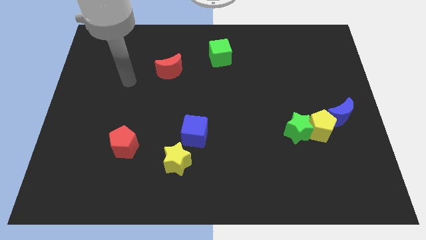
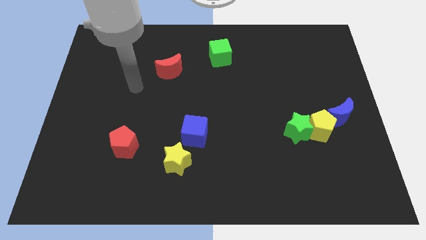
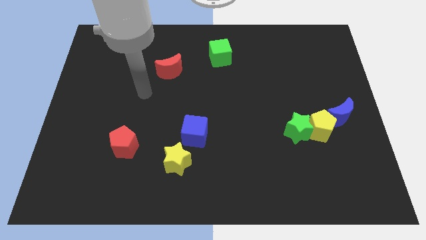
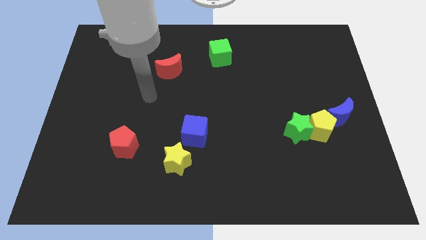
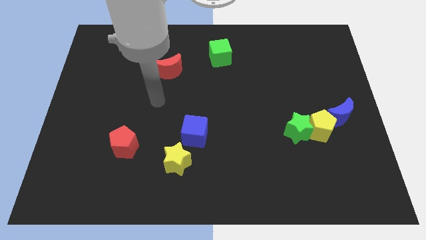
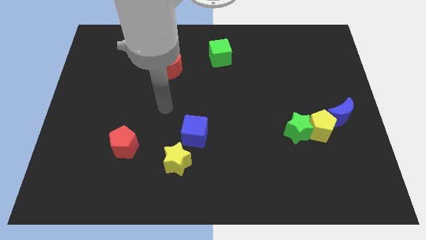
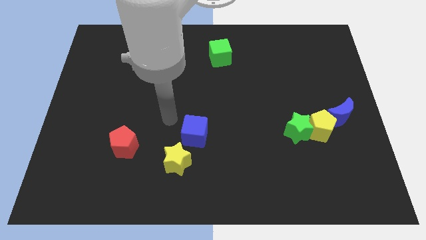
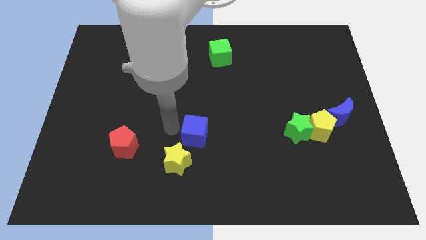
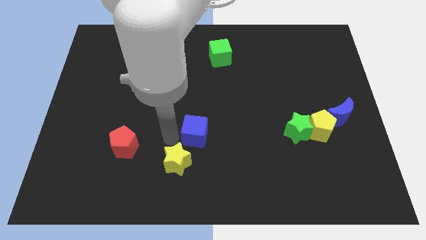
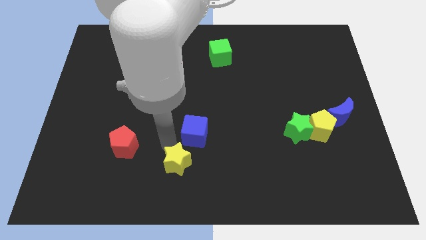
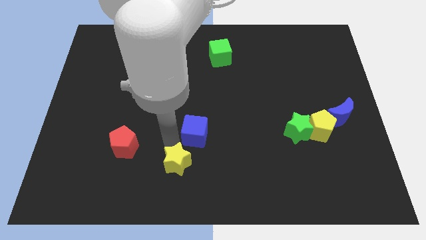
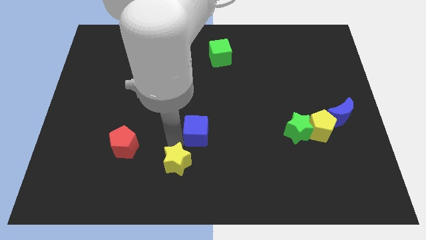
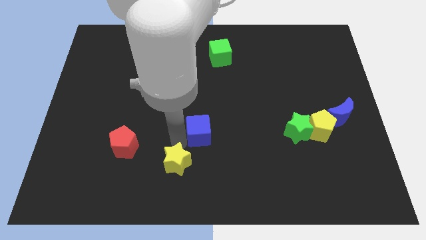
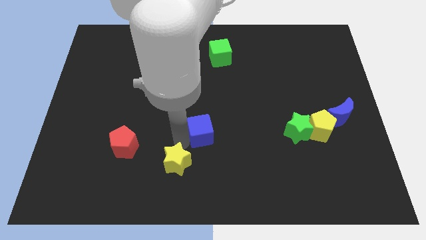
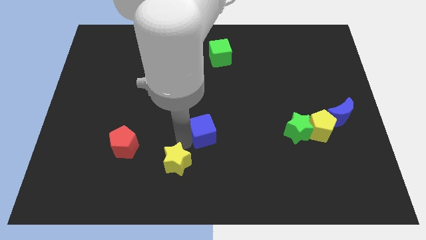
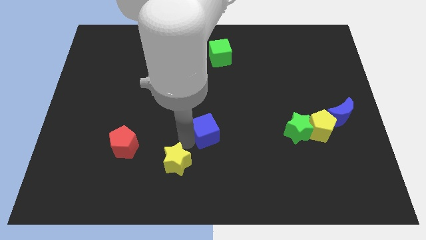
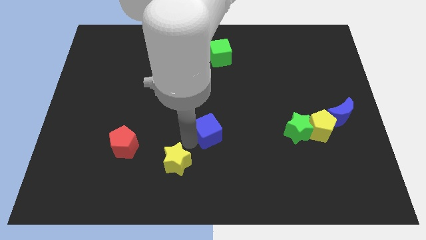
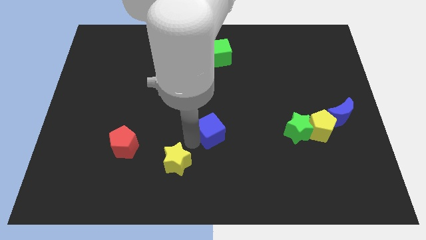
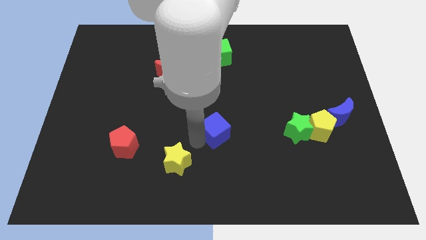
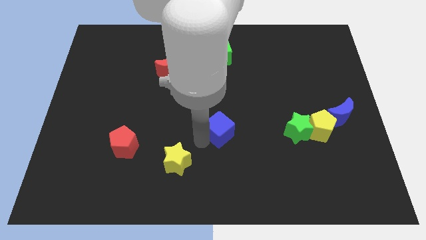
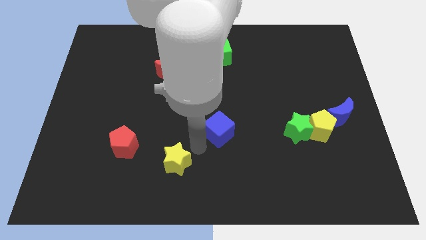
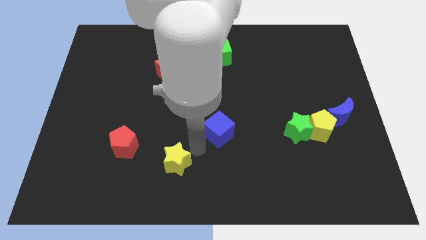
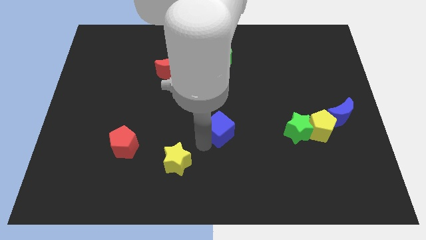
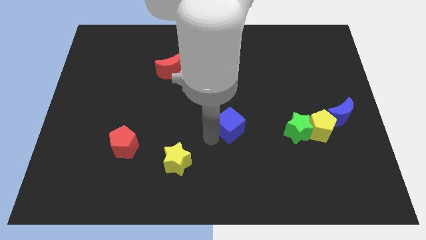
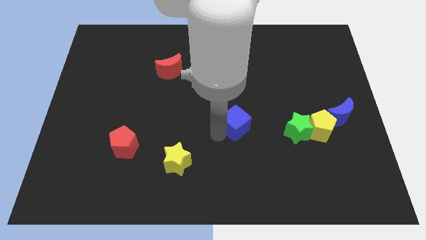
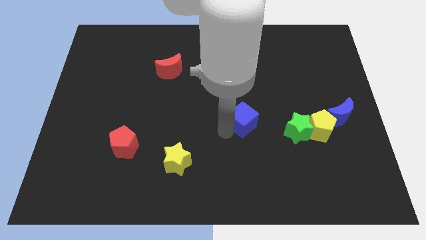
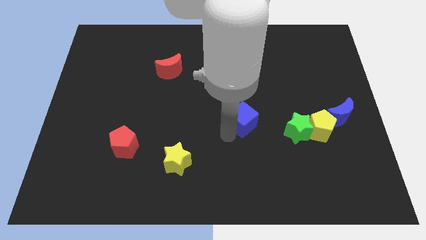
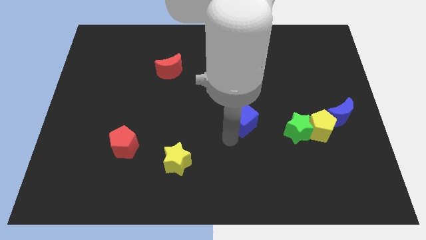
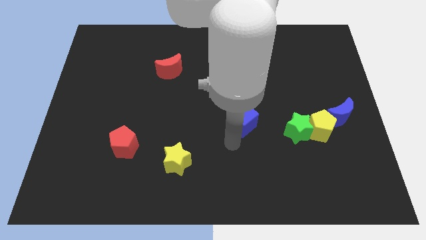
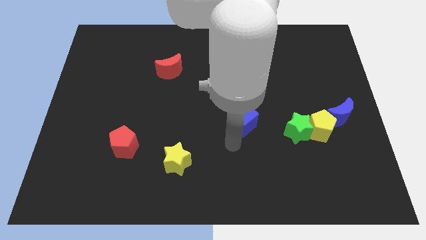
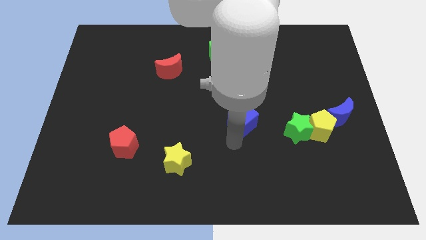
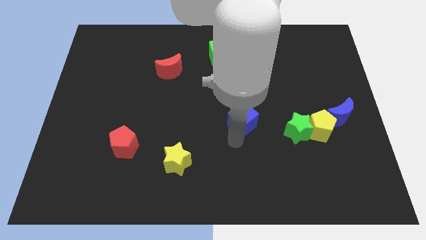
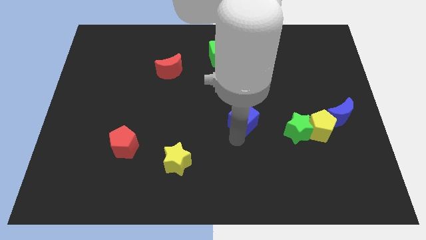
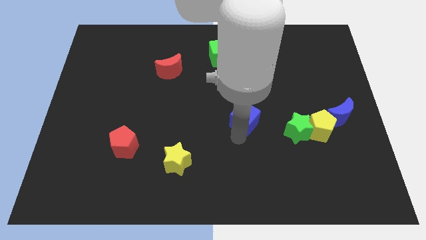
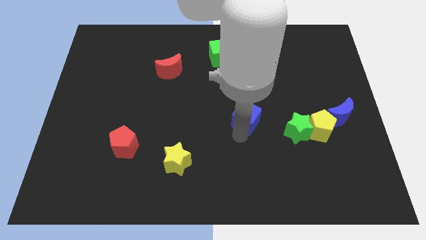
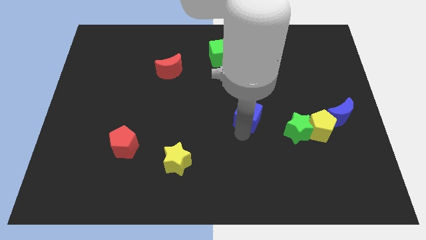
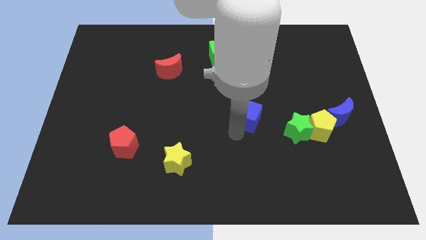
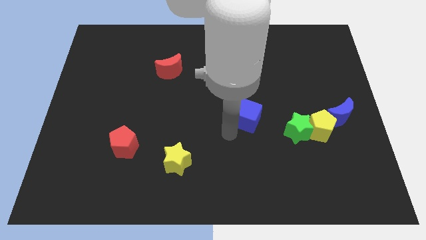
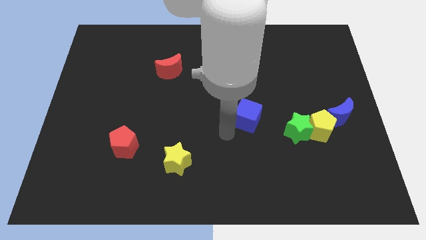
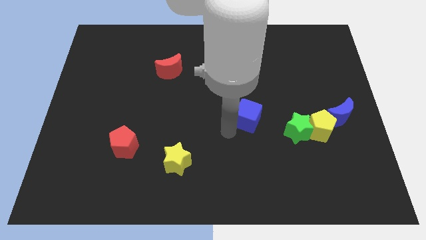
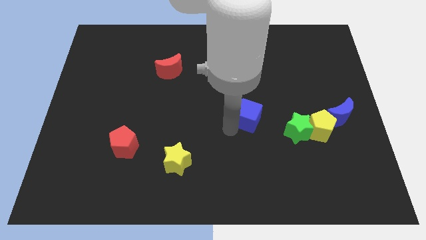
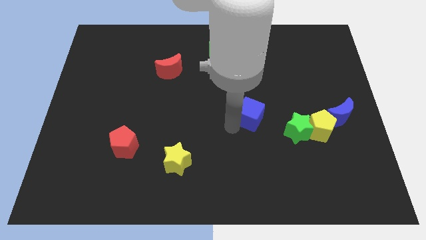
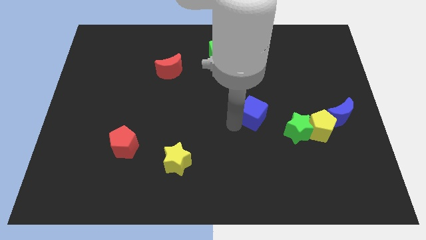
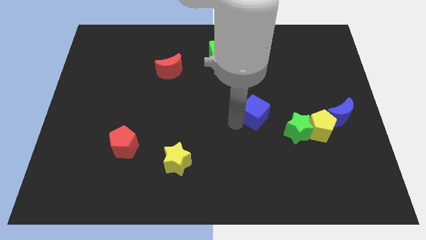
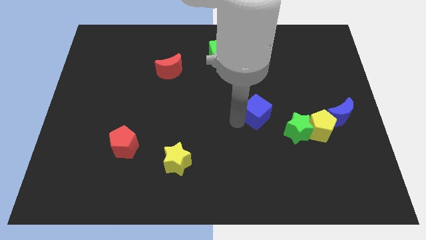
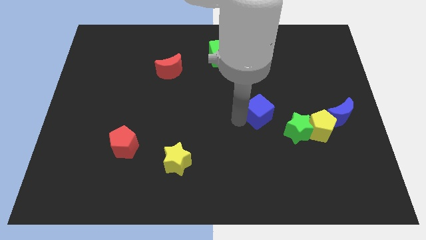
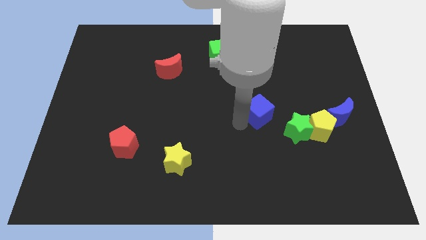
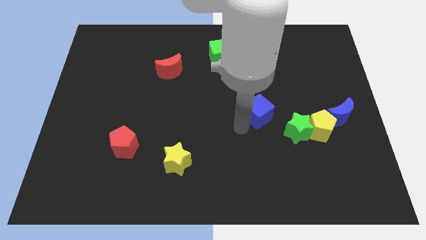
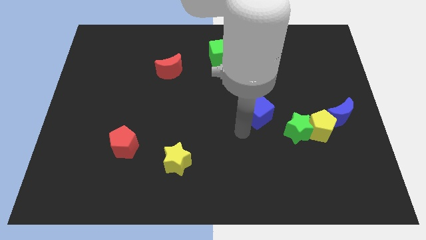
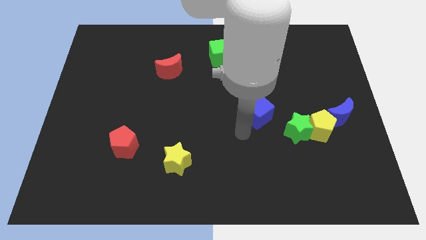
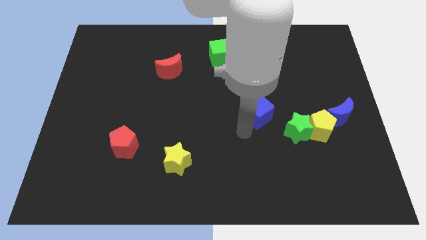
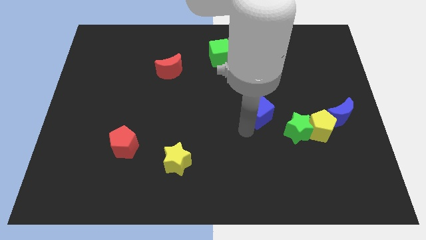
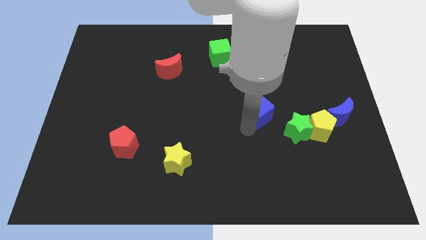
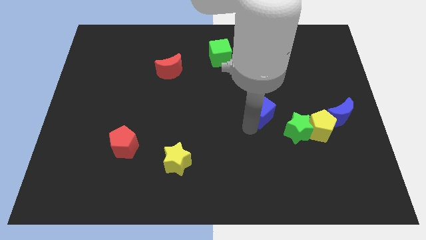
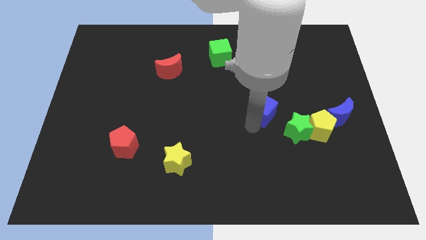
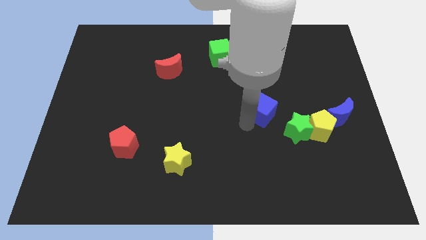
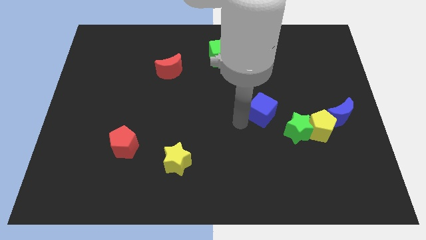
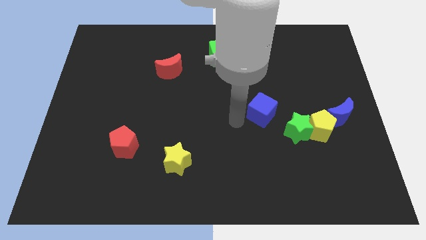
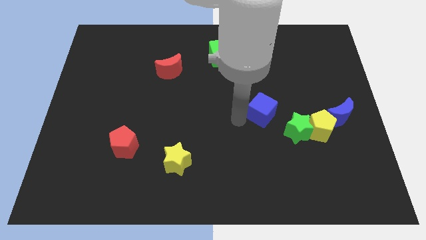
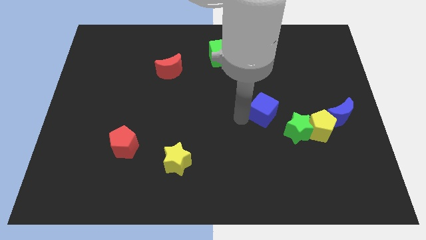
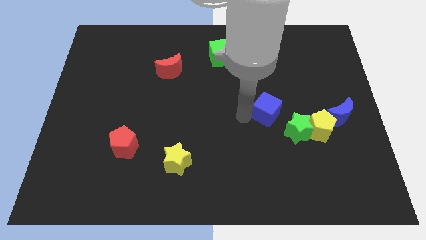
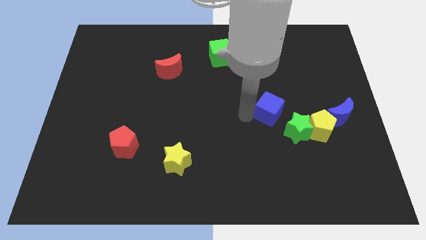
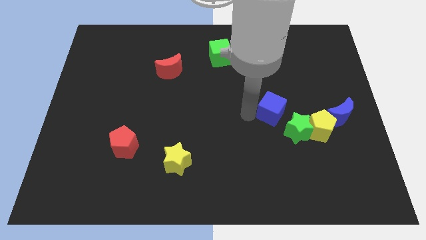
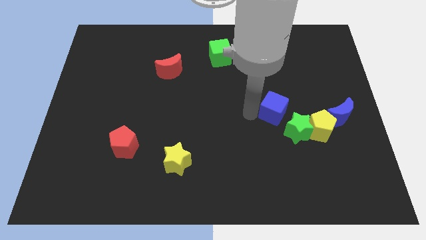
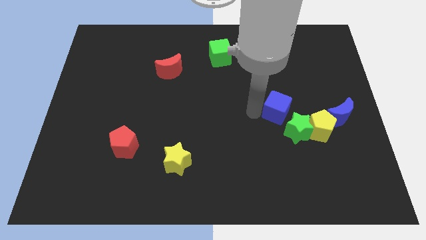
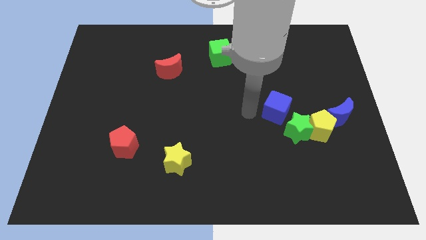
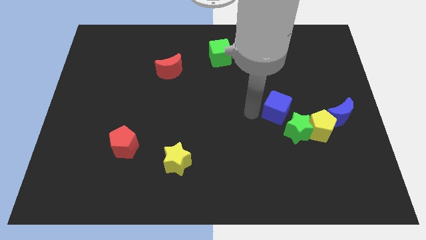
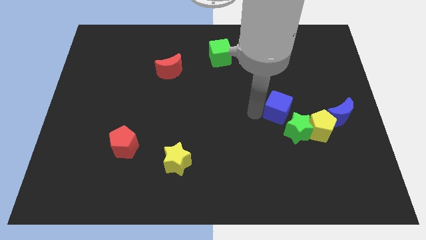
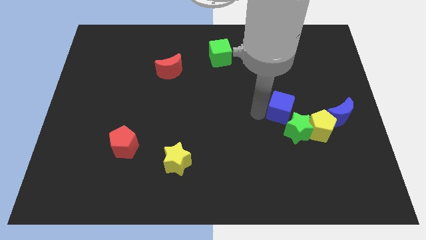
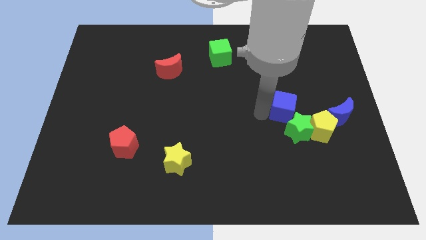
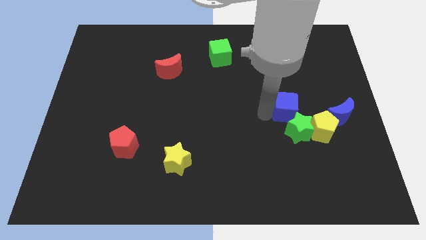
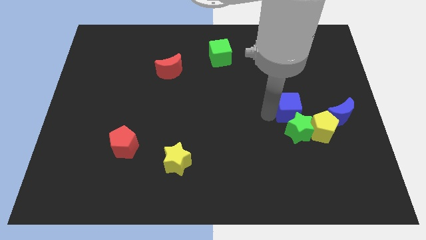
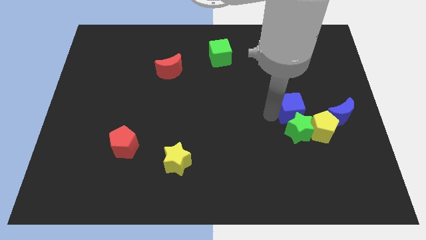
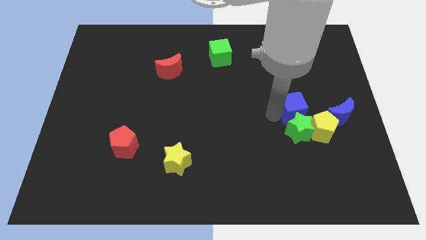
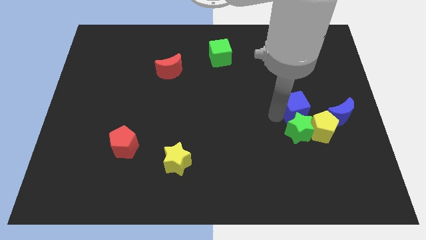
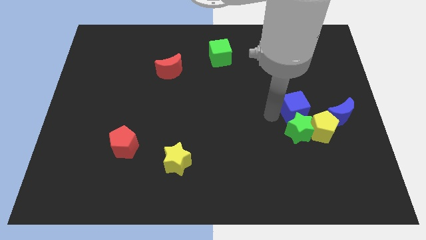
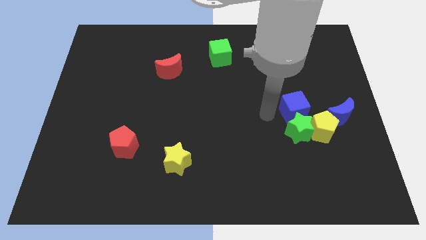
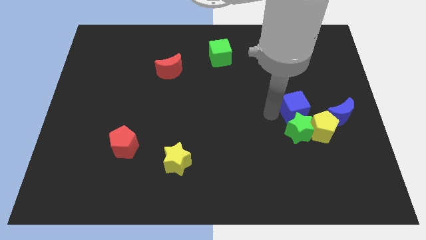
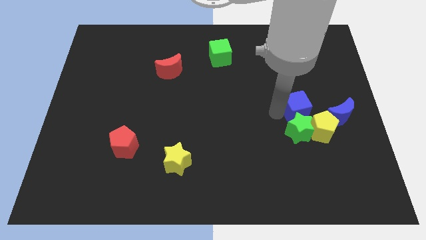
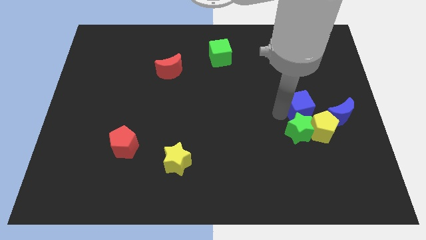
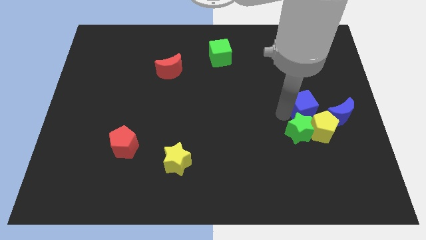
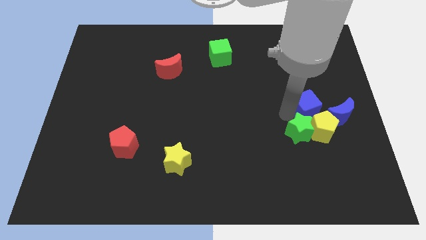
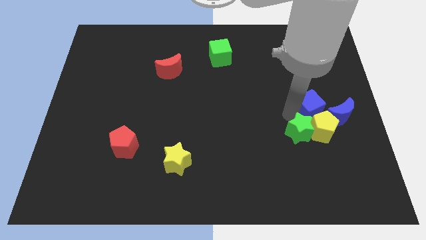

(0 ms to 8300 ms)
move the blue cube close to the yellow pentagon

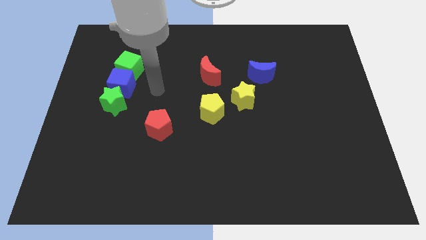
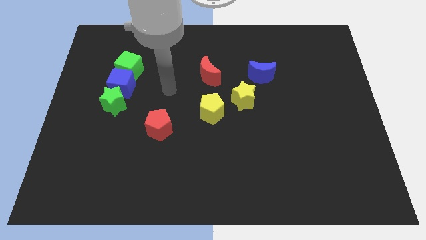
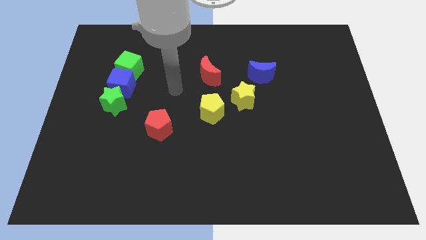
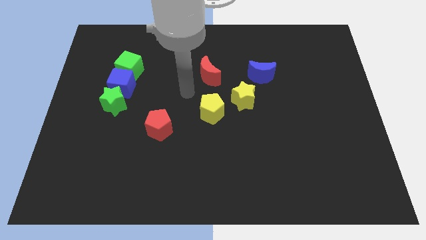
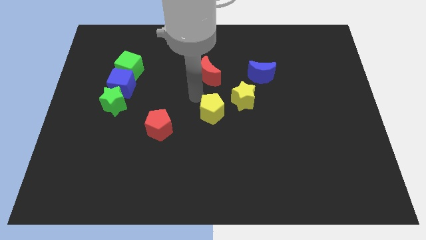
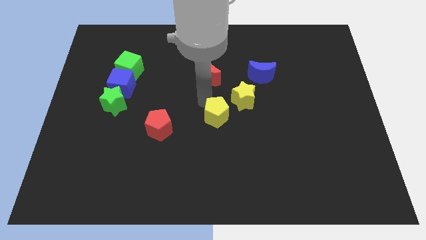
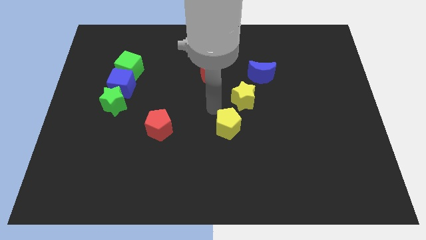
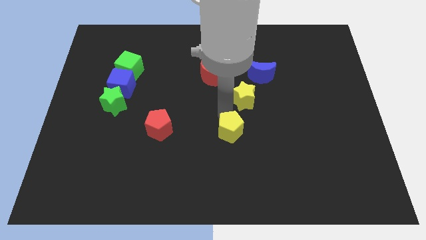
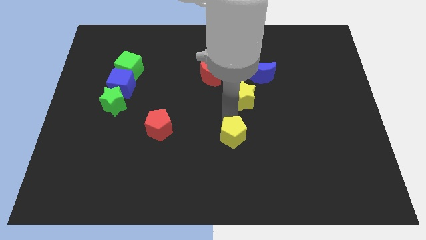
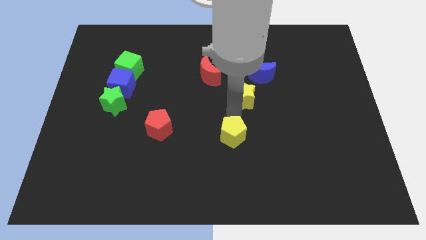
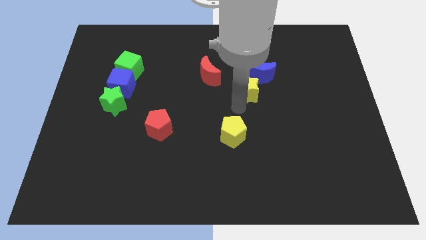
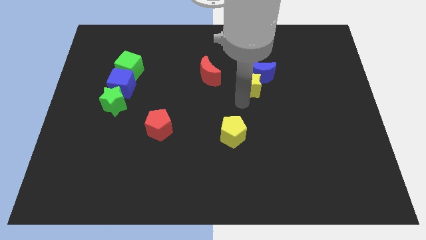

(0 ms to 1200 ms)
slide the yellow star close to the blue moon
